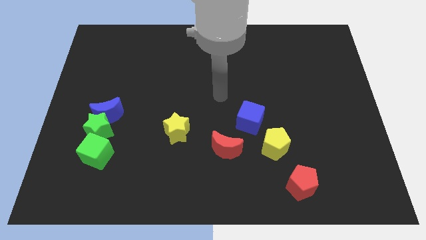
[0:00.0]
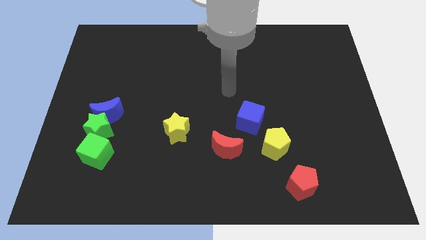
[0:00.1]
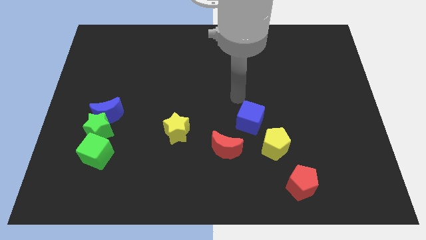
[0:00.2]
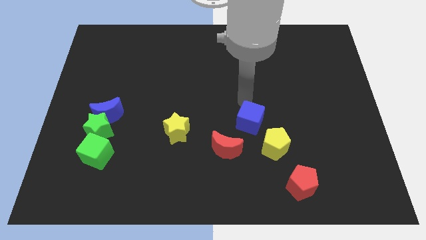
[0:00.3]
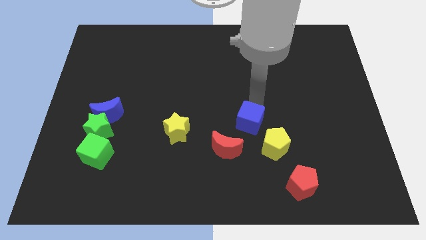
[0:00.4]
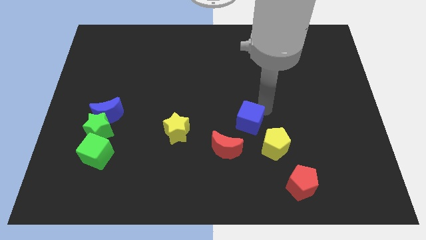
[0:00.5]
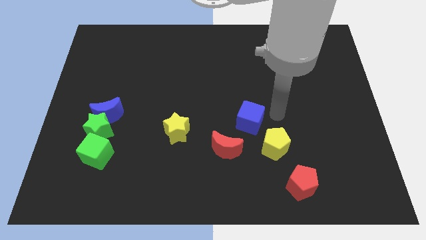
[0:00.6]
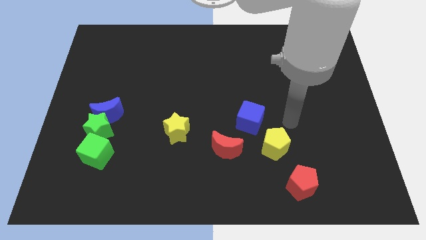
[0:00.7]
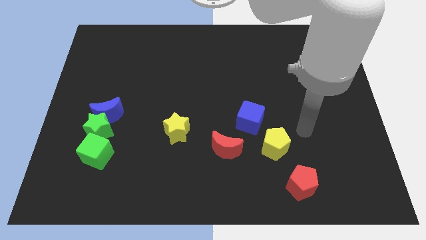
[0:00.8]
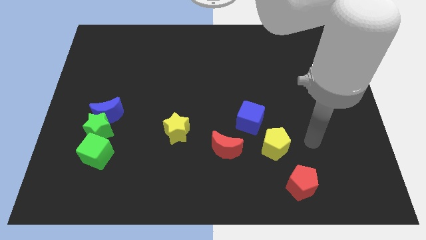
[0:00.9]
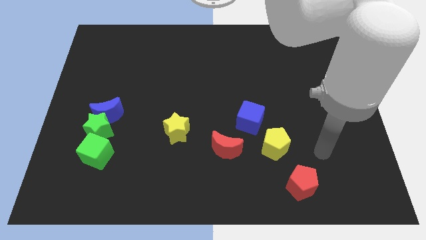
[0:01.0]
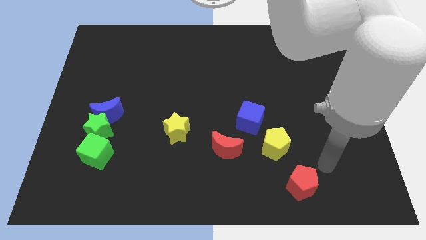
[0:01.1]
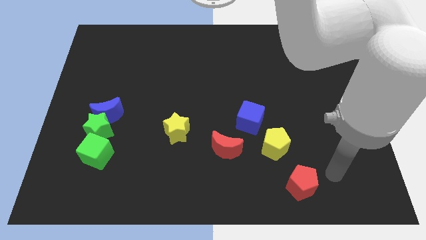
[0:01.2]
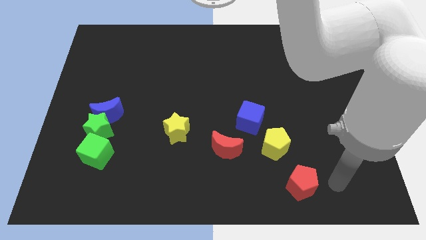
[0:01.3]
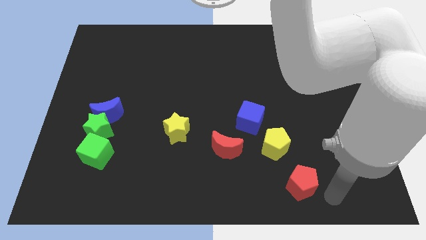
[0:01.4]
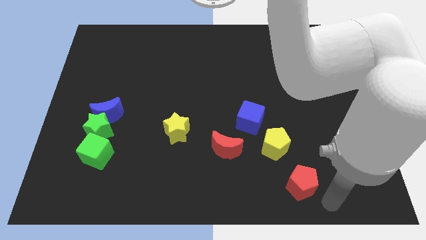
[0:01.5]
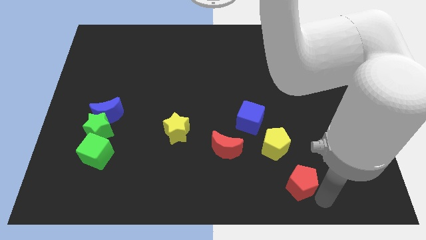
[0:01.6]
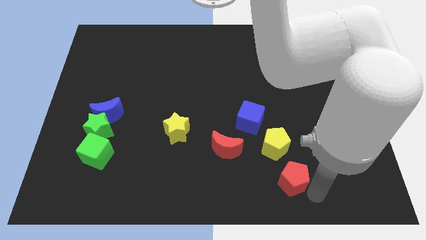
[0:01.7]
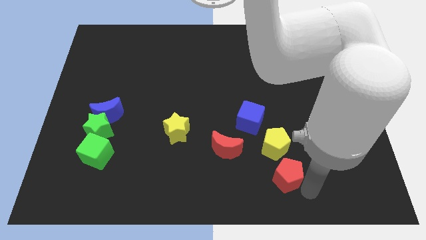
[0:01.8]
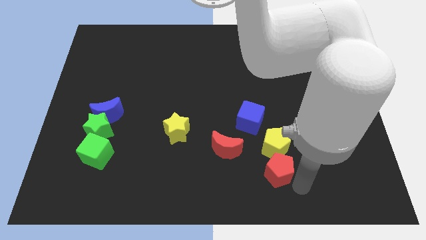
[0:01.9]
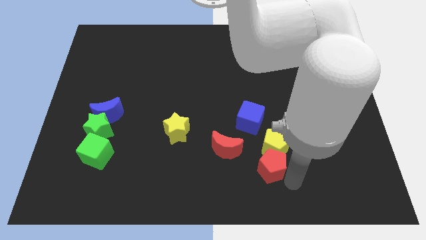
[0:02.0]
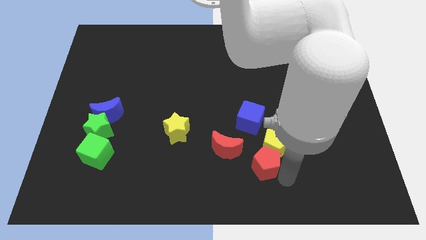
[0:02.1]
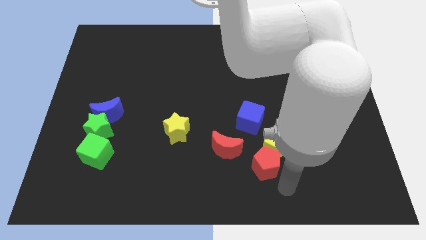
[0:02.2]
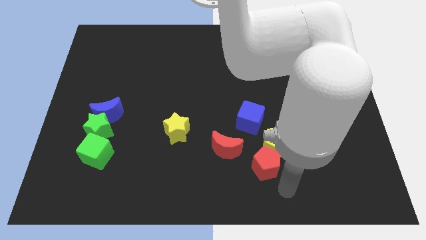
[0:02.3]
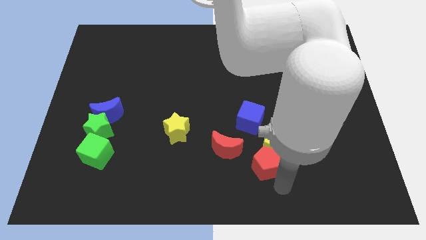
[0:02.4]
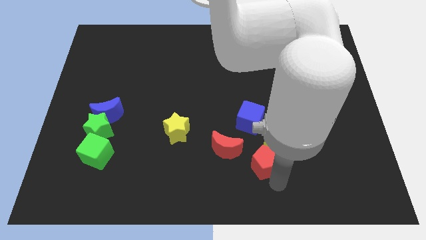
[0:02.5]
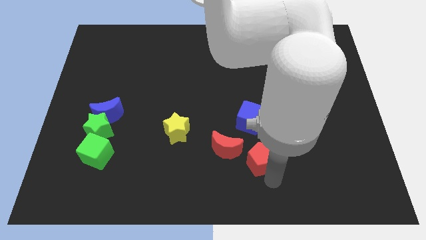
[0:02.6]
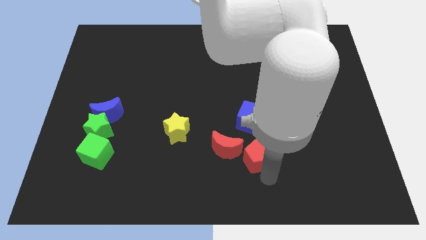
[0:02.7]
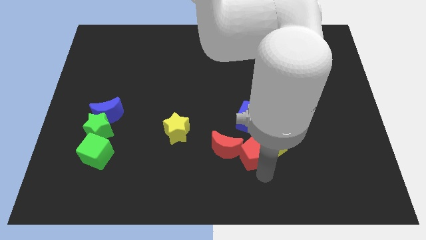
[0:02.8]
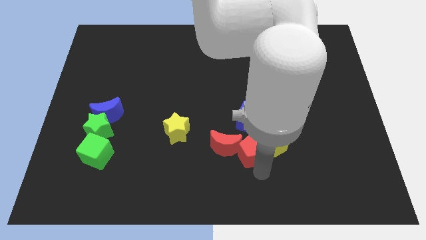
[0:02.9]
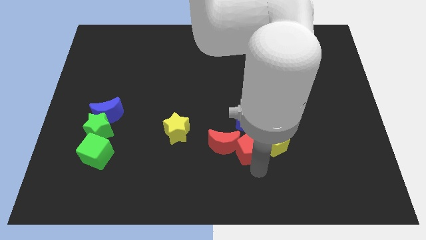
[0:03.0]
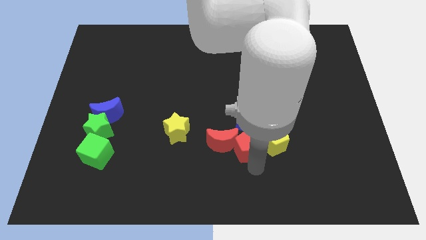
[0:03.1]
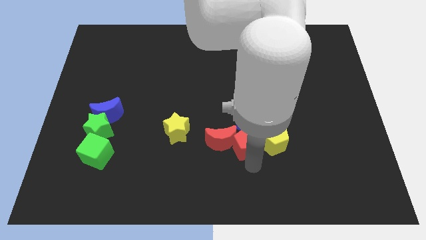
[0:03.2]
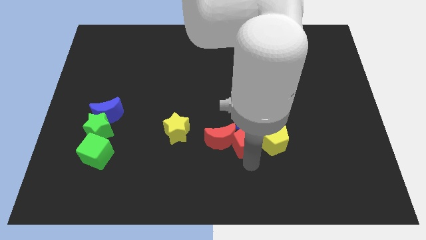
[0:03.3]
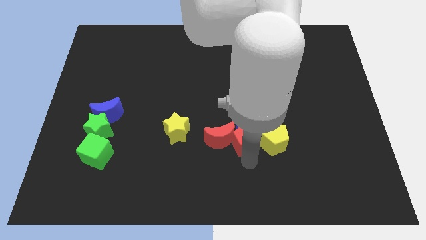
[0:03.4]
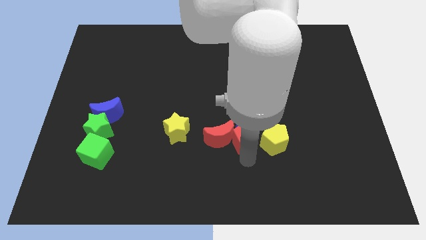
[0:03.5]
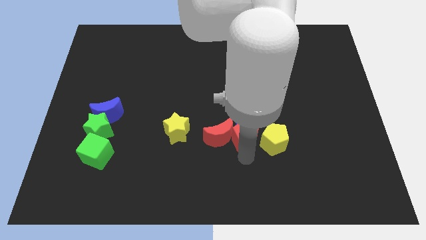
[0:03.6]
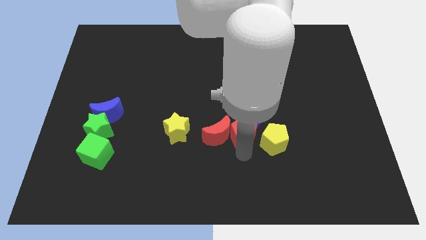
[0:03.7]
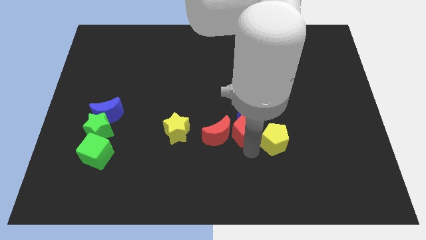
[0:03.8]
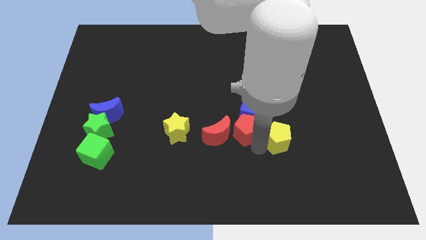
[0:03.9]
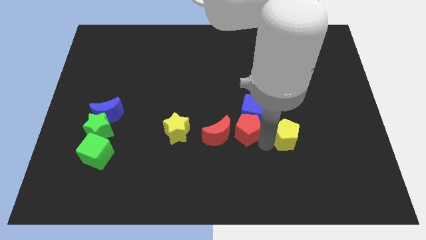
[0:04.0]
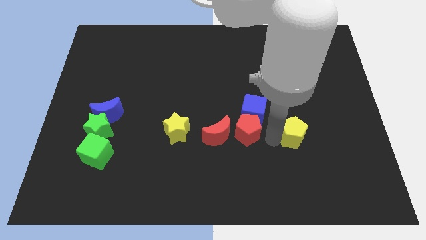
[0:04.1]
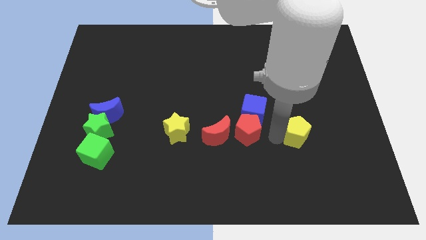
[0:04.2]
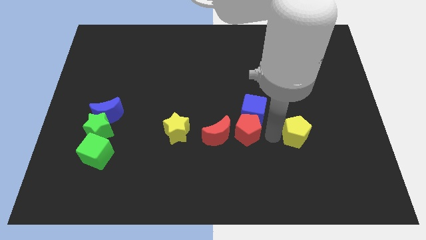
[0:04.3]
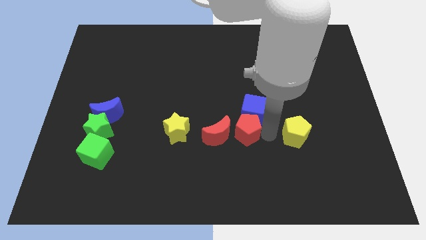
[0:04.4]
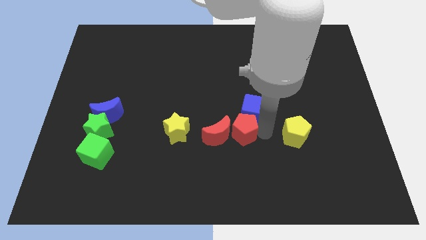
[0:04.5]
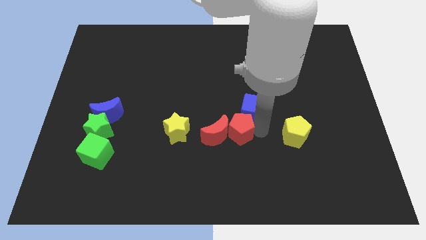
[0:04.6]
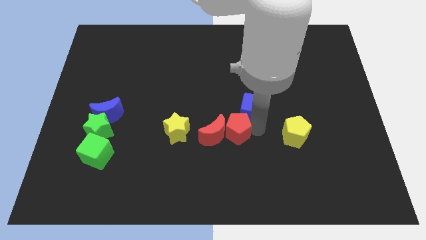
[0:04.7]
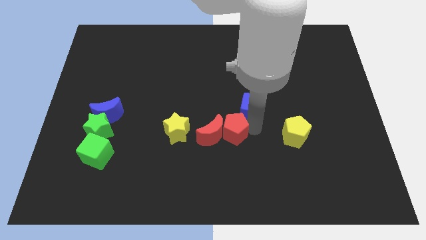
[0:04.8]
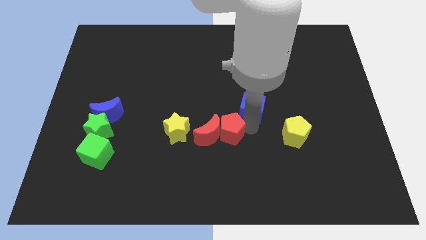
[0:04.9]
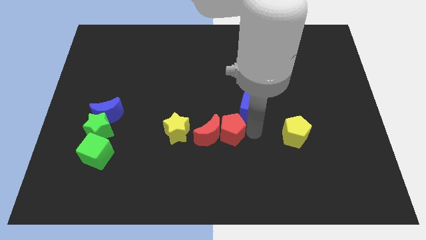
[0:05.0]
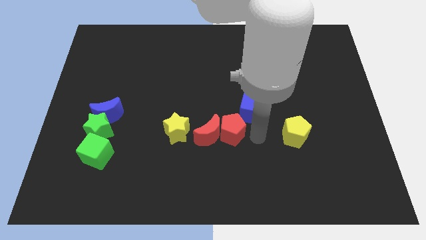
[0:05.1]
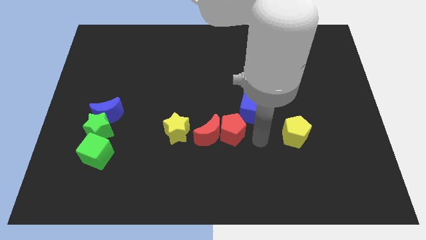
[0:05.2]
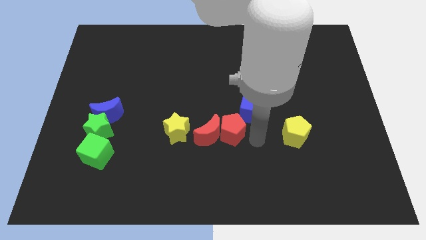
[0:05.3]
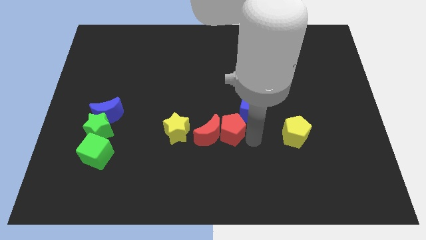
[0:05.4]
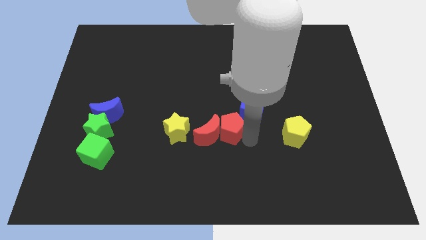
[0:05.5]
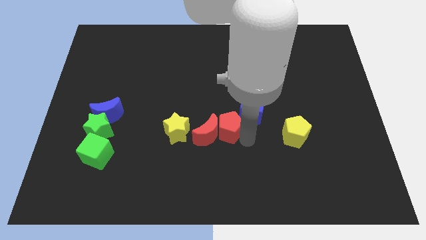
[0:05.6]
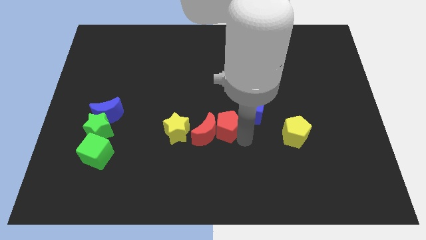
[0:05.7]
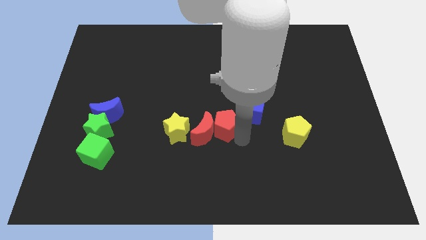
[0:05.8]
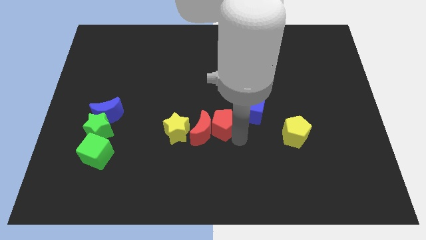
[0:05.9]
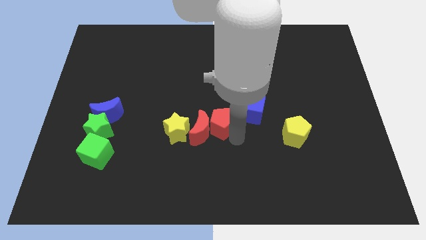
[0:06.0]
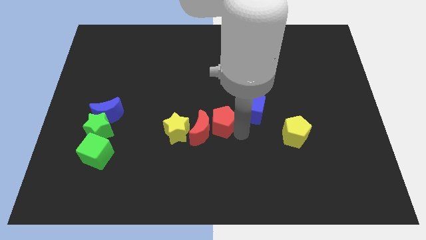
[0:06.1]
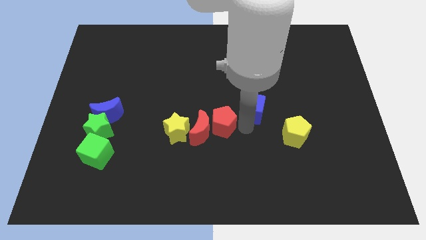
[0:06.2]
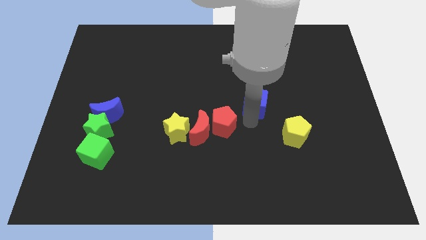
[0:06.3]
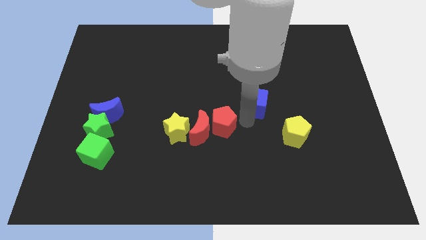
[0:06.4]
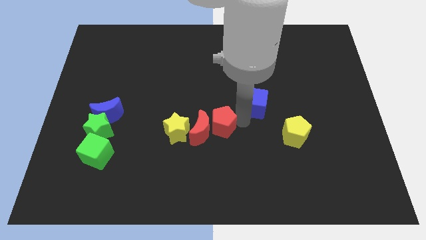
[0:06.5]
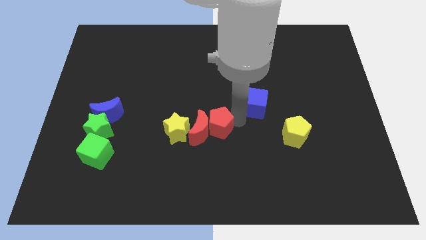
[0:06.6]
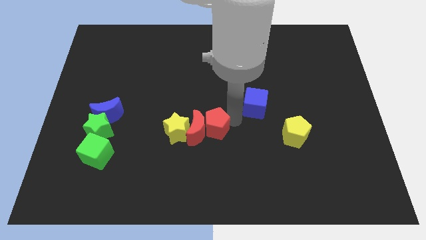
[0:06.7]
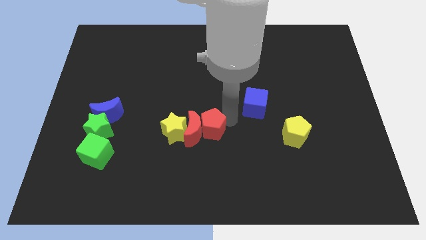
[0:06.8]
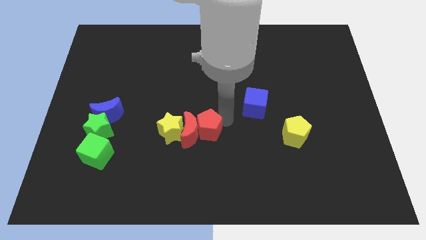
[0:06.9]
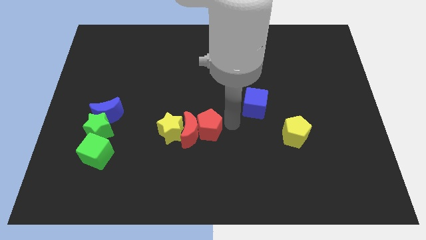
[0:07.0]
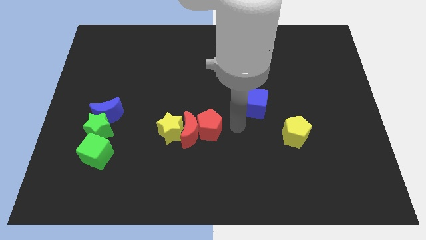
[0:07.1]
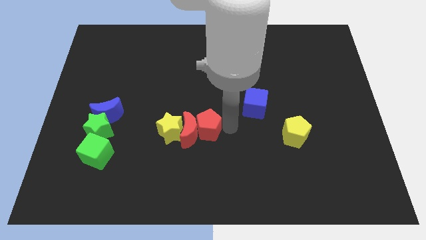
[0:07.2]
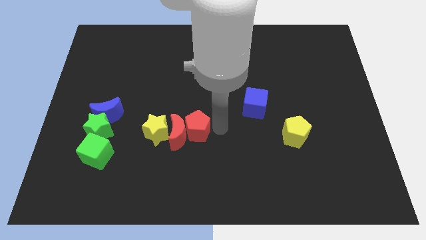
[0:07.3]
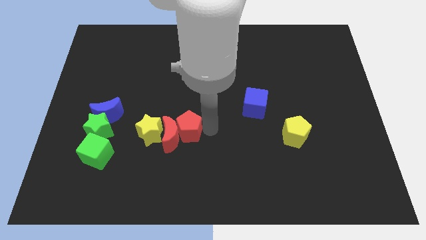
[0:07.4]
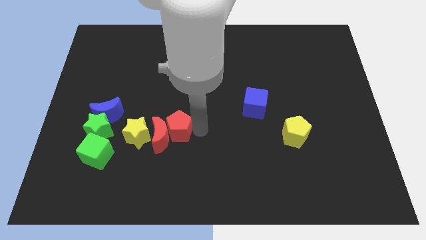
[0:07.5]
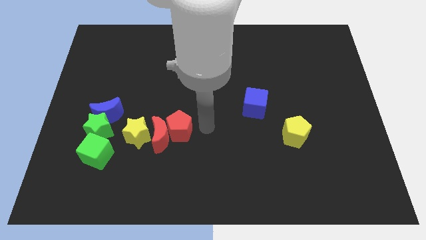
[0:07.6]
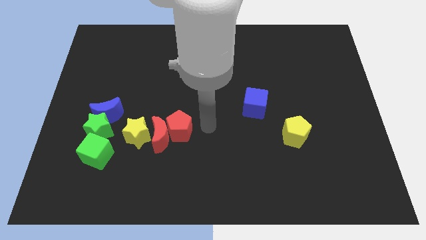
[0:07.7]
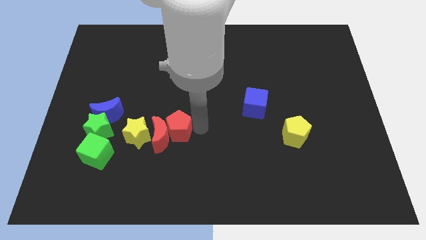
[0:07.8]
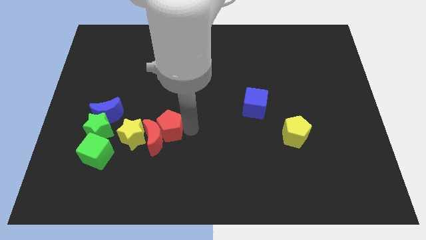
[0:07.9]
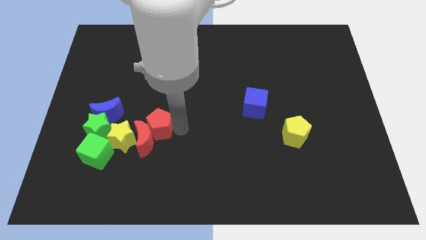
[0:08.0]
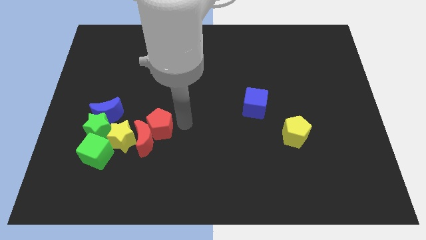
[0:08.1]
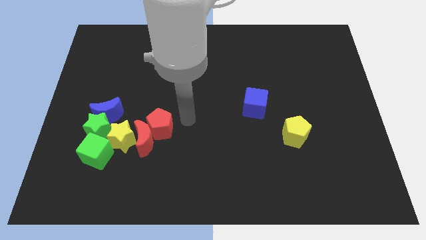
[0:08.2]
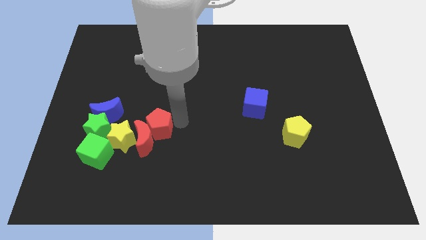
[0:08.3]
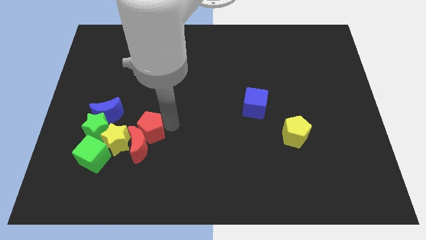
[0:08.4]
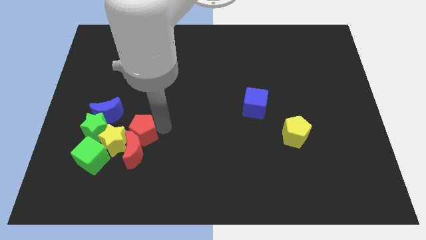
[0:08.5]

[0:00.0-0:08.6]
slide the red pentagon close to the yellow star
